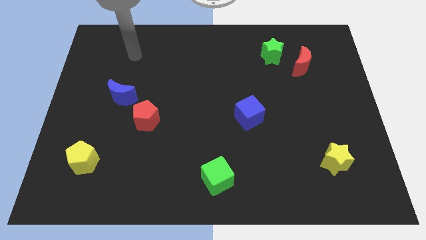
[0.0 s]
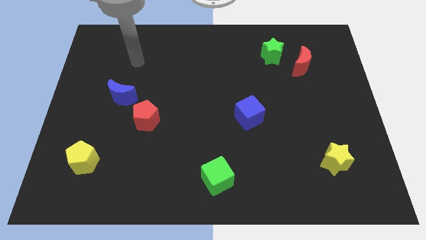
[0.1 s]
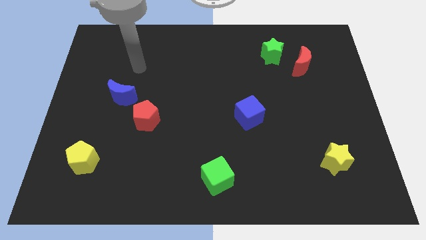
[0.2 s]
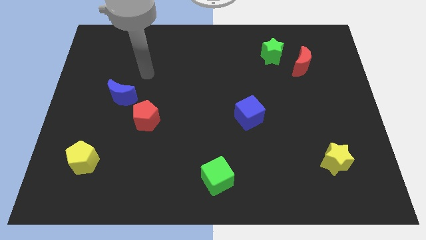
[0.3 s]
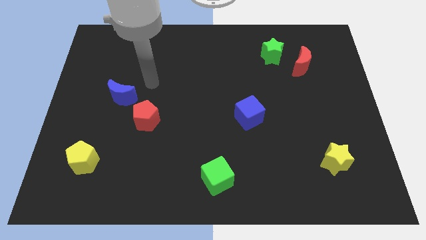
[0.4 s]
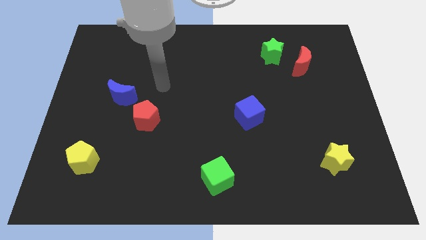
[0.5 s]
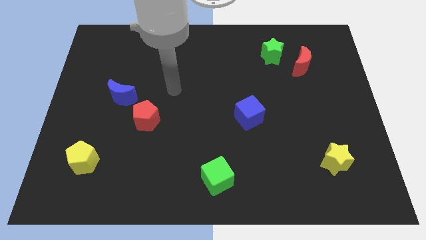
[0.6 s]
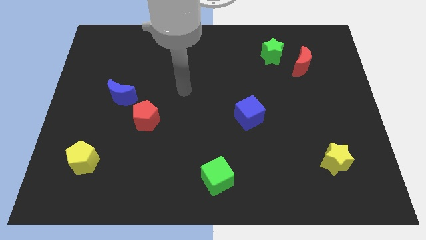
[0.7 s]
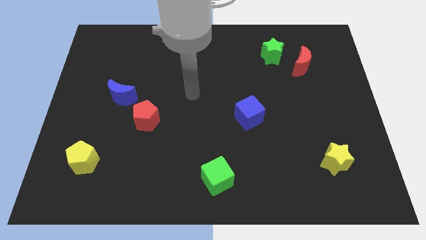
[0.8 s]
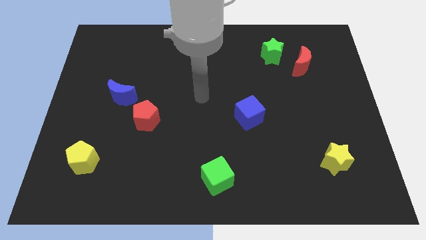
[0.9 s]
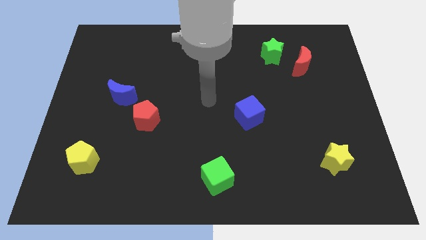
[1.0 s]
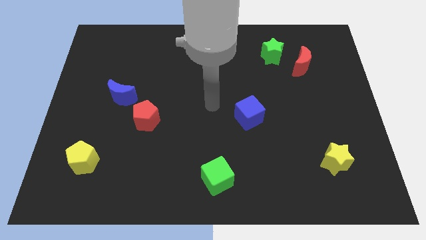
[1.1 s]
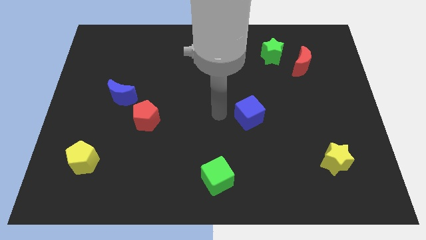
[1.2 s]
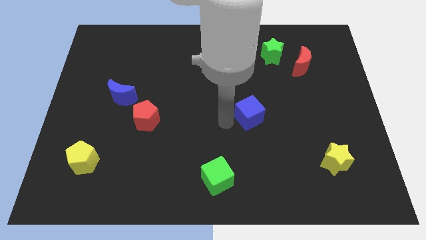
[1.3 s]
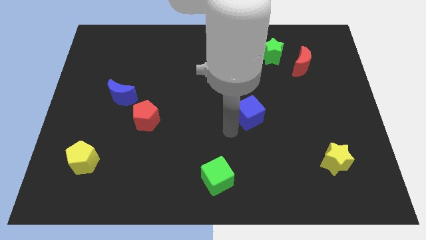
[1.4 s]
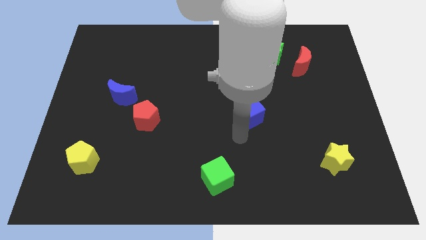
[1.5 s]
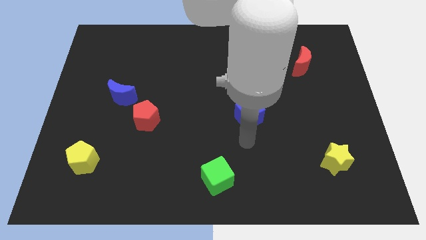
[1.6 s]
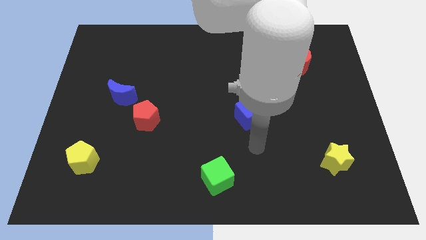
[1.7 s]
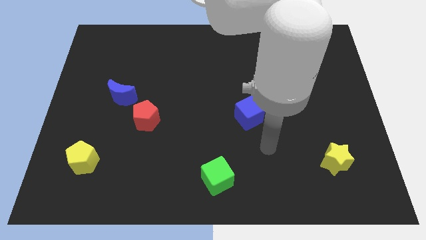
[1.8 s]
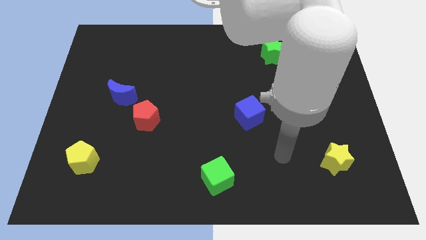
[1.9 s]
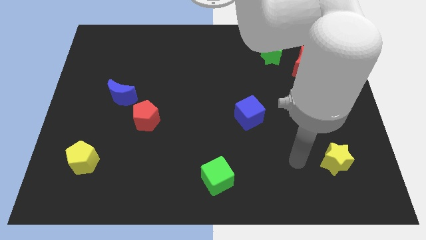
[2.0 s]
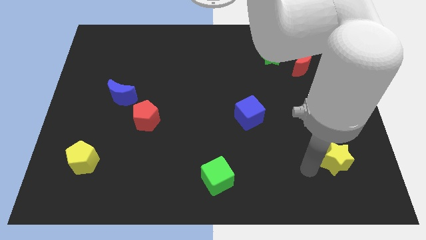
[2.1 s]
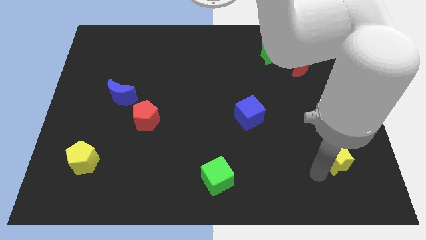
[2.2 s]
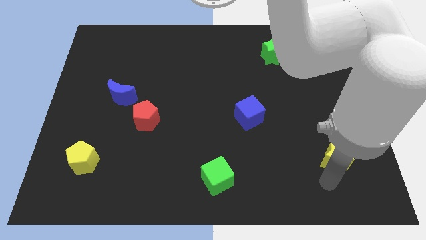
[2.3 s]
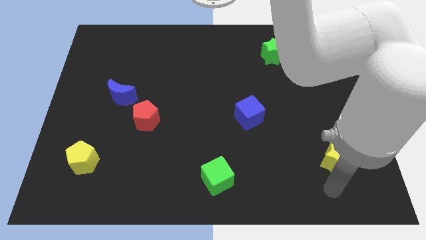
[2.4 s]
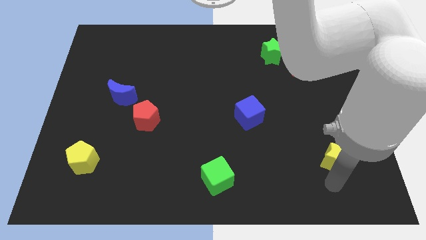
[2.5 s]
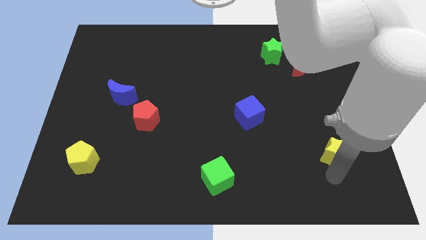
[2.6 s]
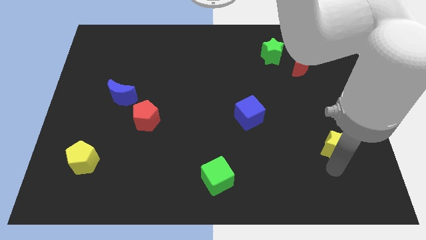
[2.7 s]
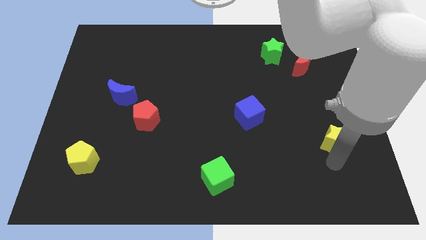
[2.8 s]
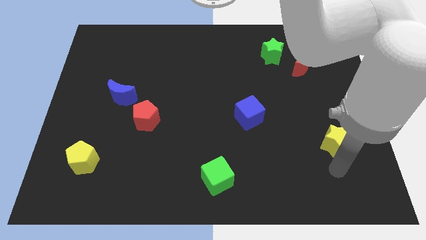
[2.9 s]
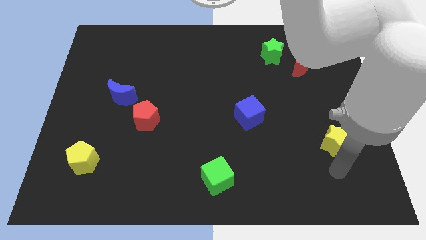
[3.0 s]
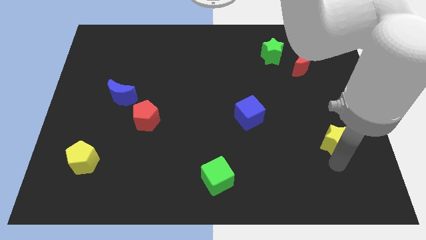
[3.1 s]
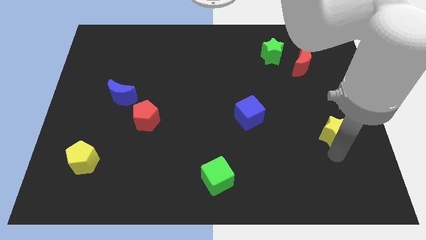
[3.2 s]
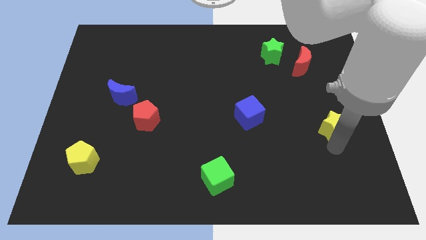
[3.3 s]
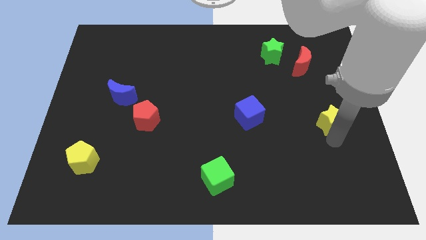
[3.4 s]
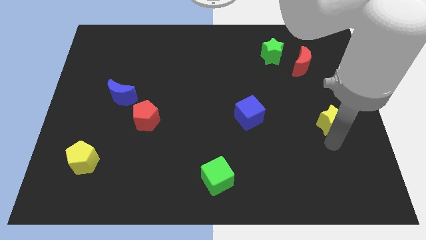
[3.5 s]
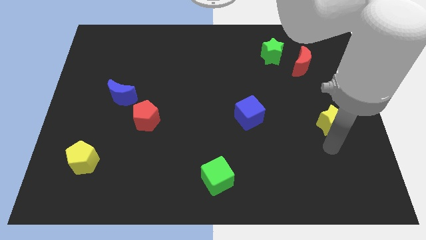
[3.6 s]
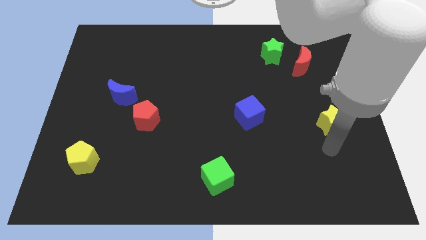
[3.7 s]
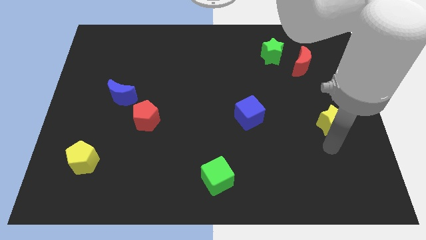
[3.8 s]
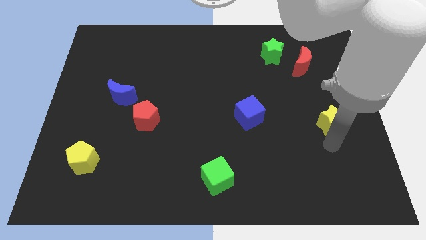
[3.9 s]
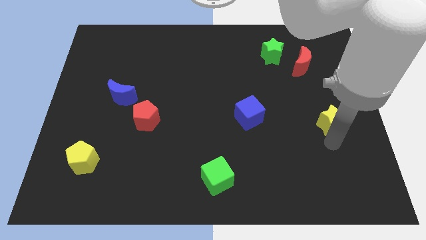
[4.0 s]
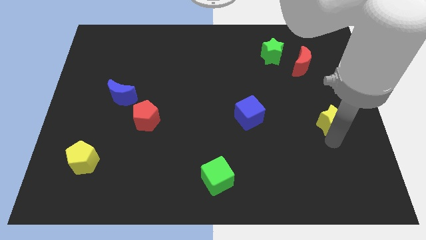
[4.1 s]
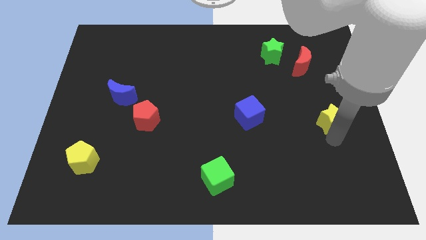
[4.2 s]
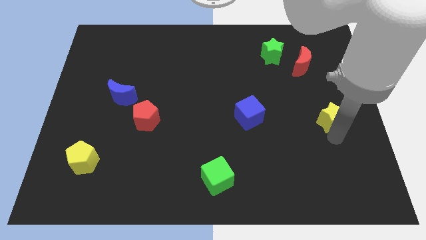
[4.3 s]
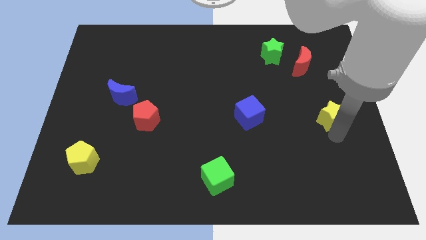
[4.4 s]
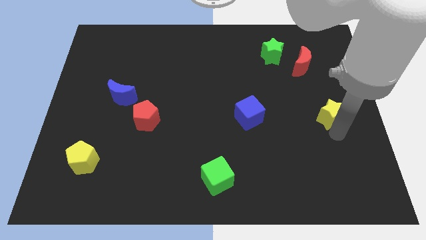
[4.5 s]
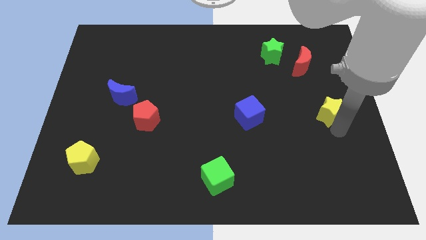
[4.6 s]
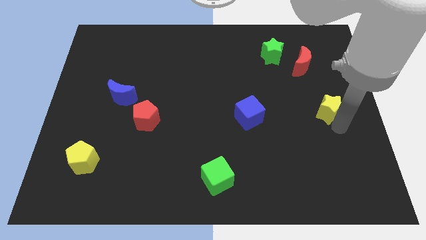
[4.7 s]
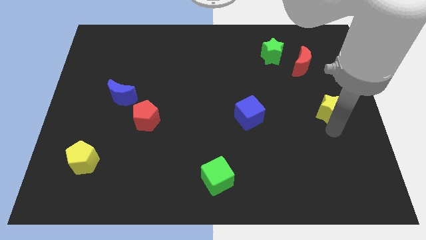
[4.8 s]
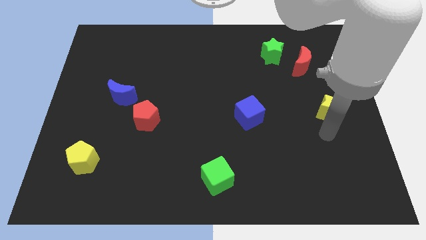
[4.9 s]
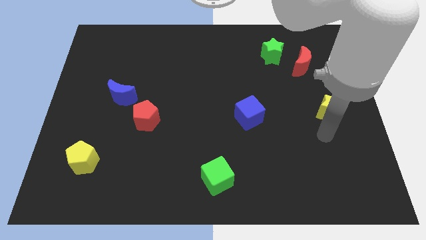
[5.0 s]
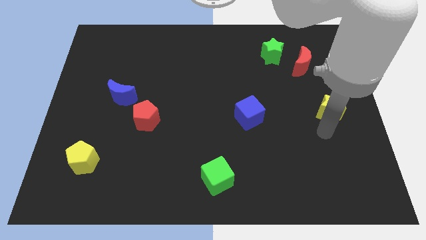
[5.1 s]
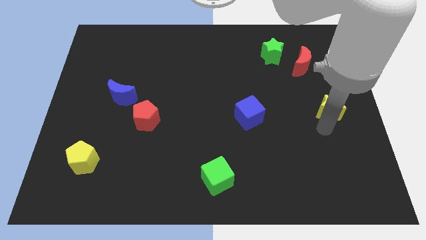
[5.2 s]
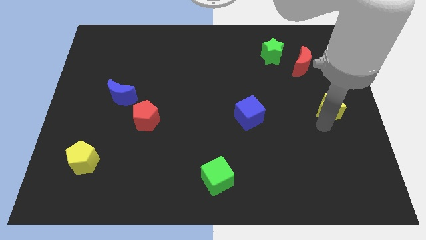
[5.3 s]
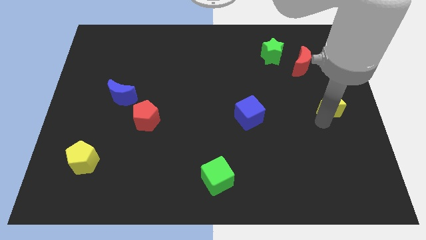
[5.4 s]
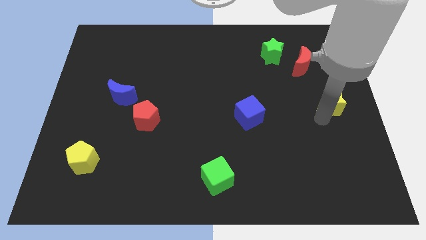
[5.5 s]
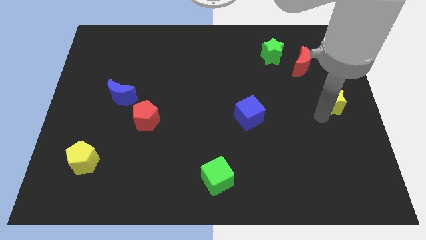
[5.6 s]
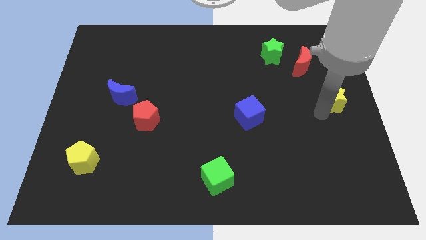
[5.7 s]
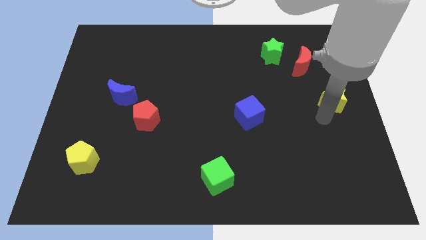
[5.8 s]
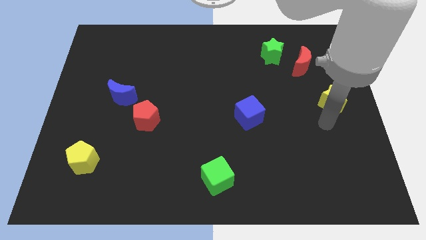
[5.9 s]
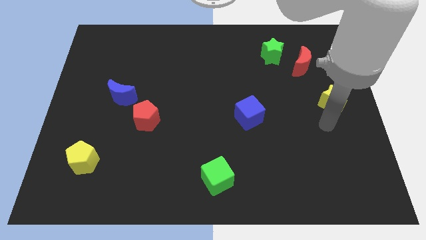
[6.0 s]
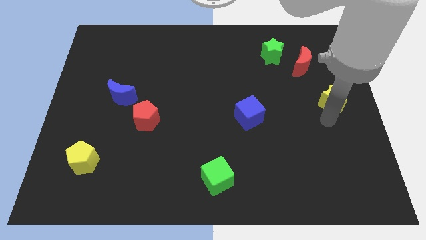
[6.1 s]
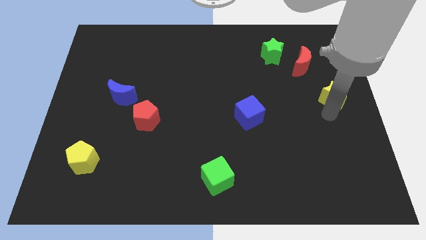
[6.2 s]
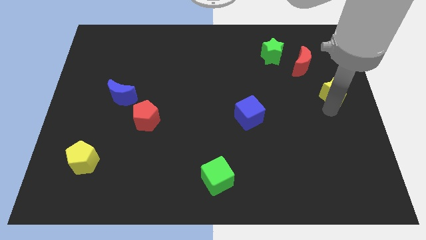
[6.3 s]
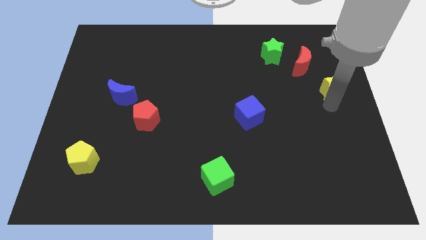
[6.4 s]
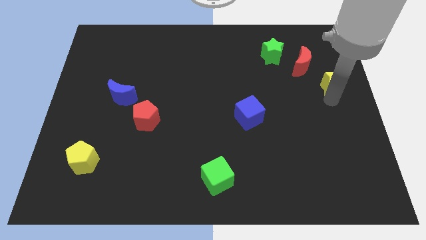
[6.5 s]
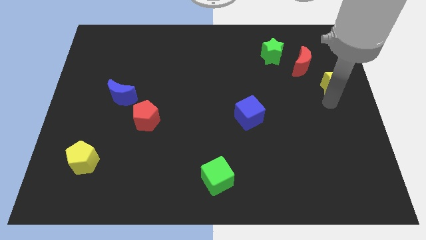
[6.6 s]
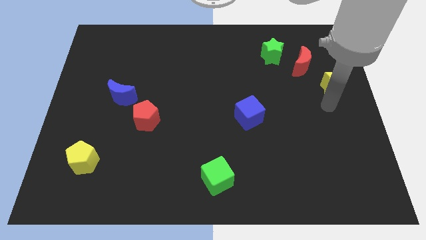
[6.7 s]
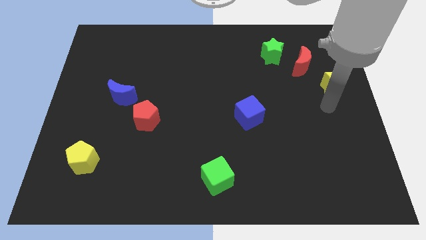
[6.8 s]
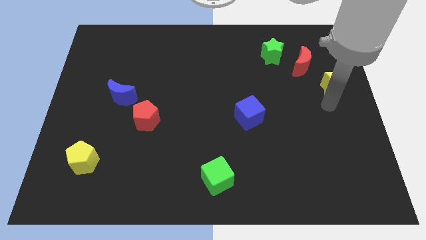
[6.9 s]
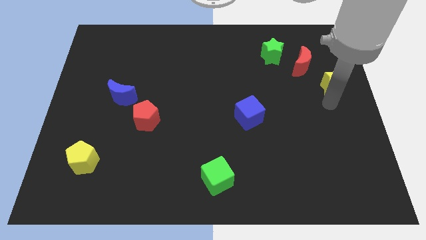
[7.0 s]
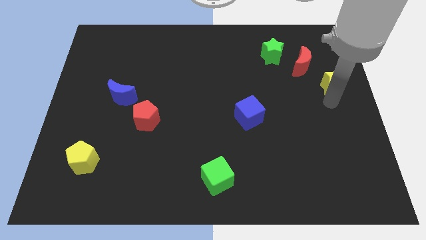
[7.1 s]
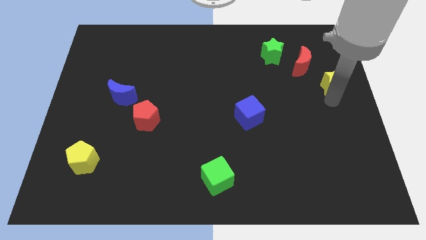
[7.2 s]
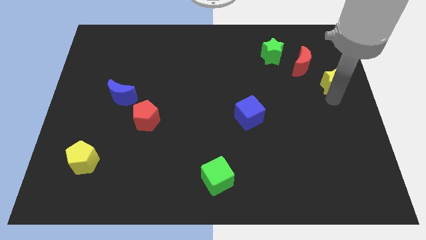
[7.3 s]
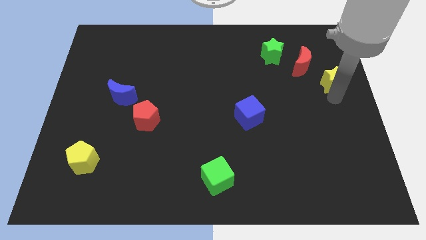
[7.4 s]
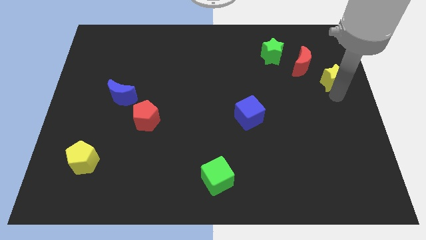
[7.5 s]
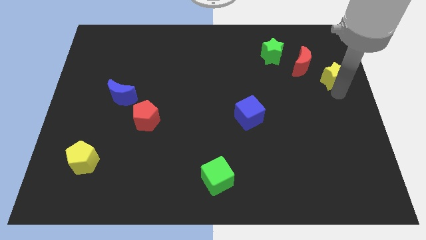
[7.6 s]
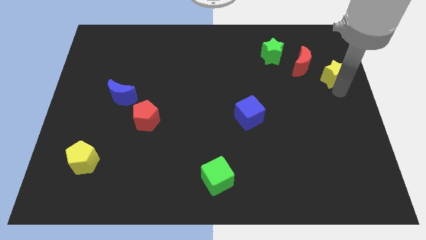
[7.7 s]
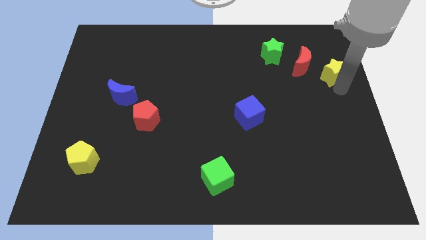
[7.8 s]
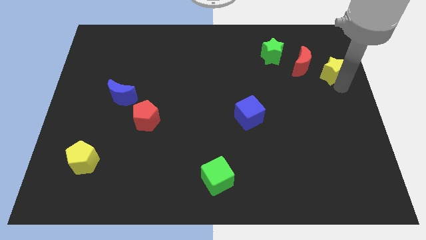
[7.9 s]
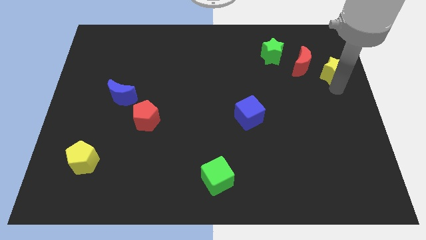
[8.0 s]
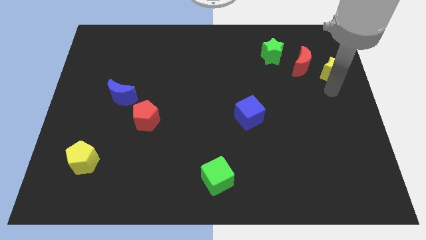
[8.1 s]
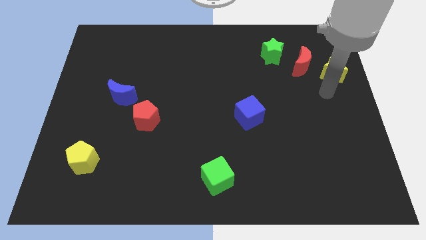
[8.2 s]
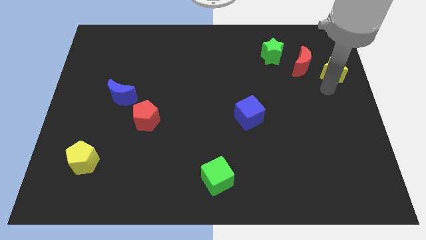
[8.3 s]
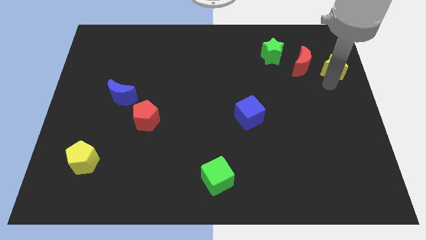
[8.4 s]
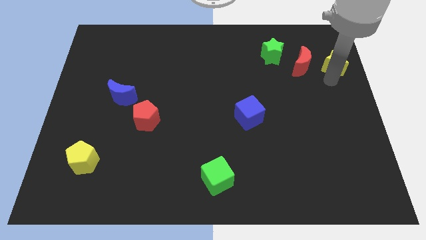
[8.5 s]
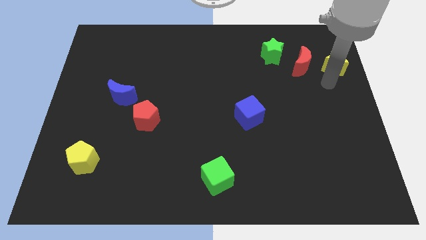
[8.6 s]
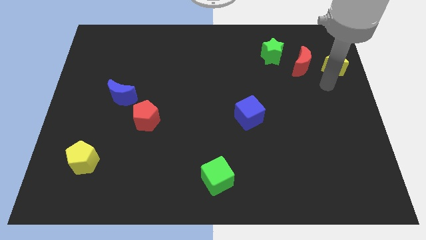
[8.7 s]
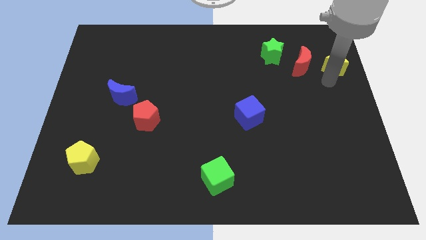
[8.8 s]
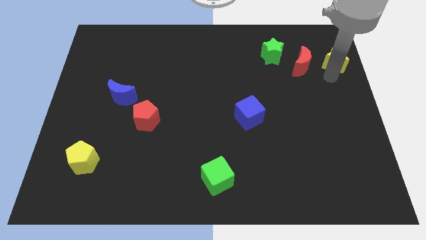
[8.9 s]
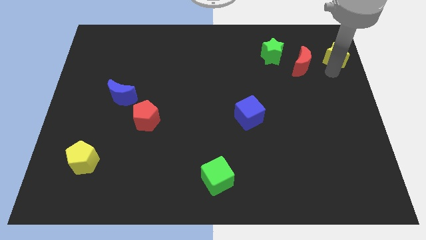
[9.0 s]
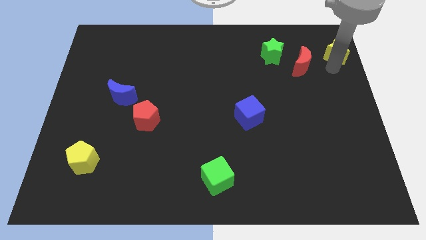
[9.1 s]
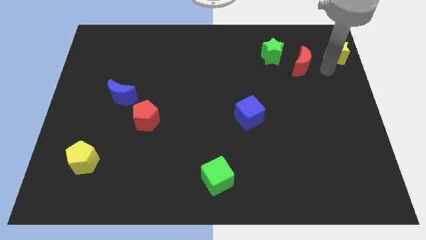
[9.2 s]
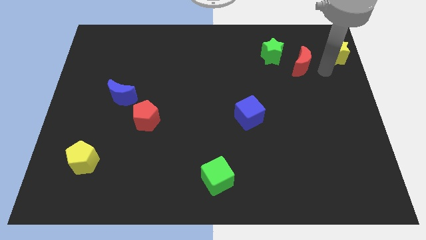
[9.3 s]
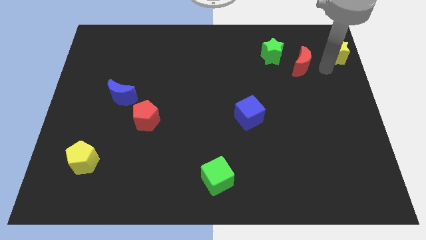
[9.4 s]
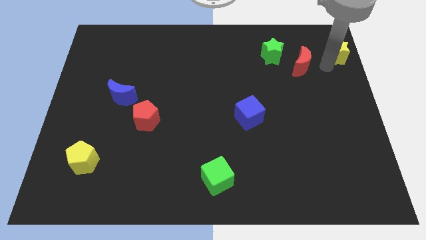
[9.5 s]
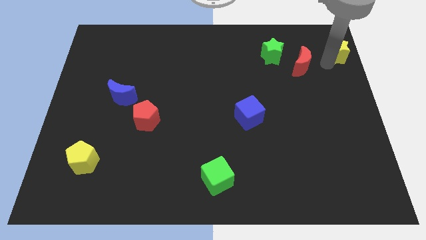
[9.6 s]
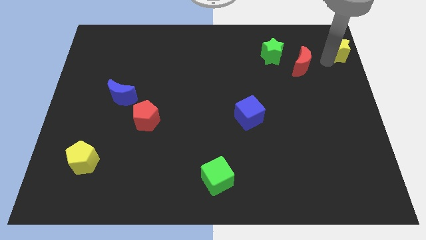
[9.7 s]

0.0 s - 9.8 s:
push the yellow star to the top right of the board
